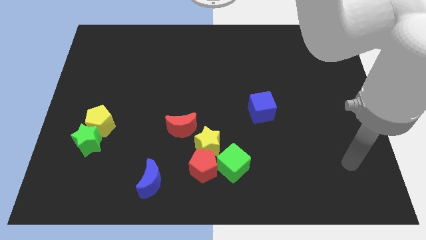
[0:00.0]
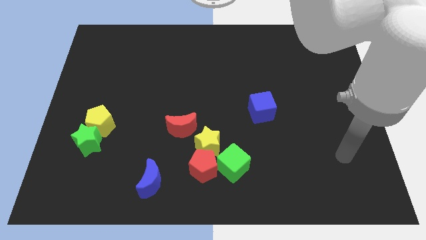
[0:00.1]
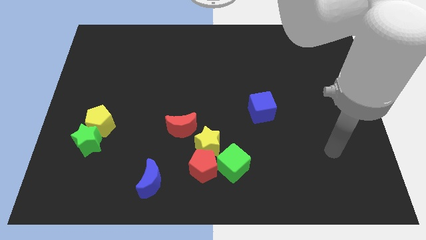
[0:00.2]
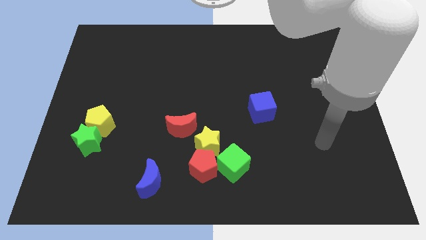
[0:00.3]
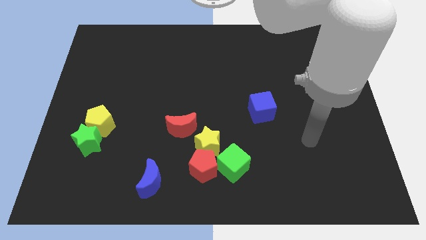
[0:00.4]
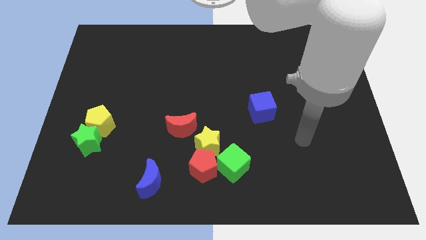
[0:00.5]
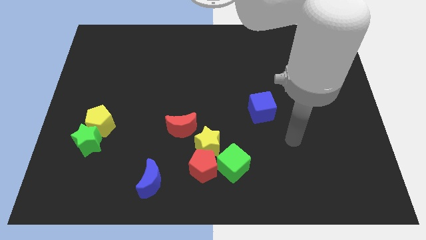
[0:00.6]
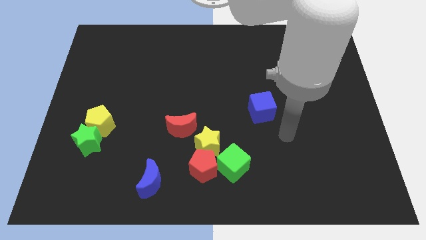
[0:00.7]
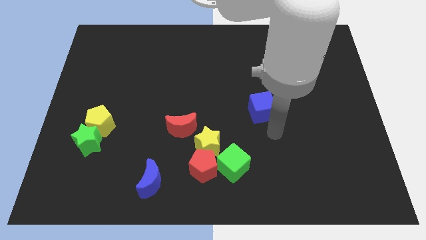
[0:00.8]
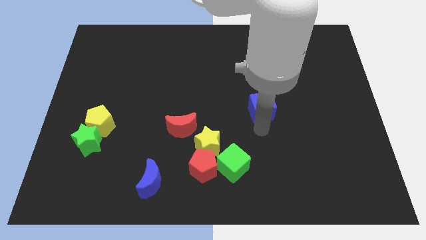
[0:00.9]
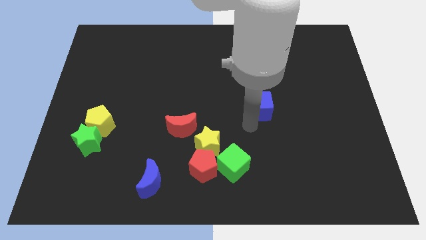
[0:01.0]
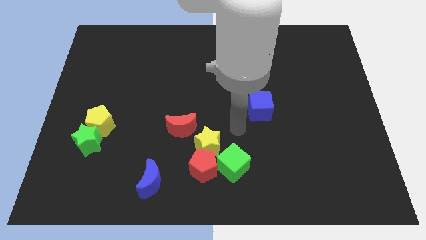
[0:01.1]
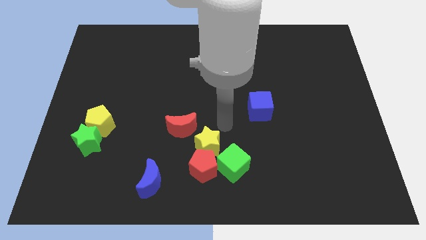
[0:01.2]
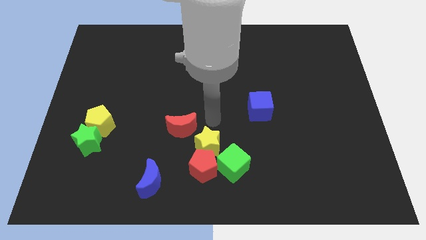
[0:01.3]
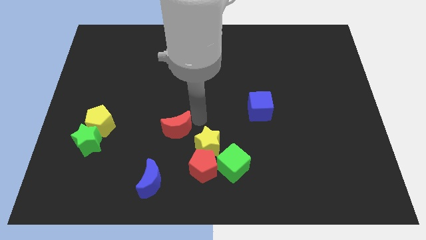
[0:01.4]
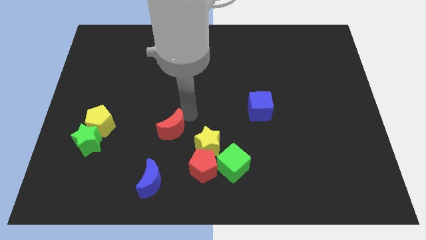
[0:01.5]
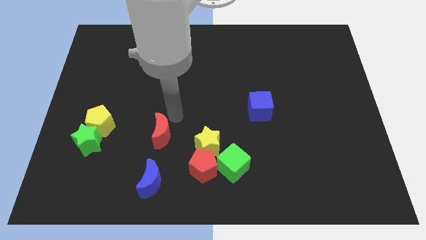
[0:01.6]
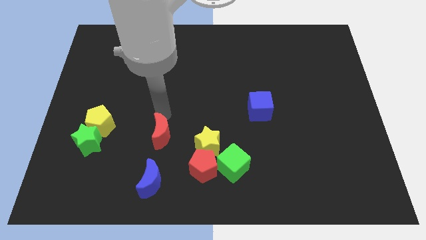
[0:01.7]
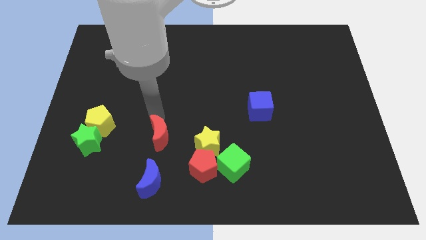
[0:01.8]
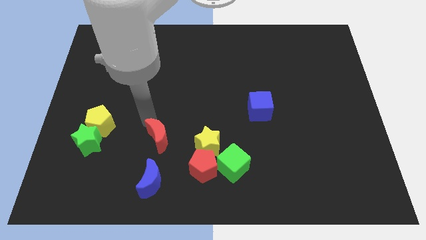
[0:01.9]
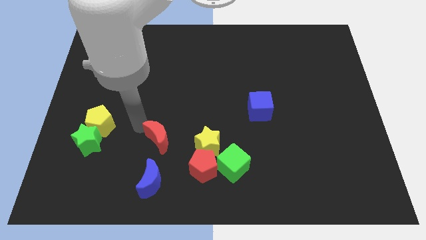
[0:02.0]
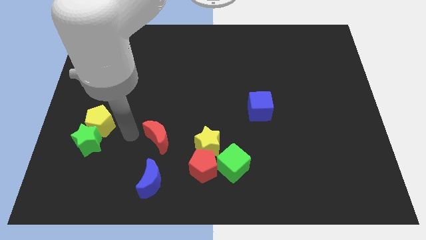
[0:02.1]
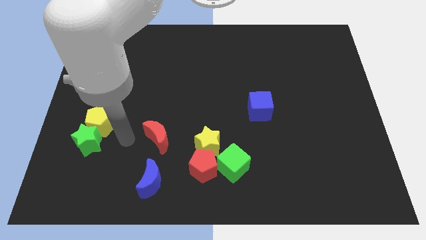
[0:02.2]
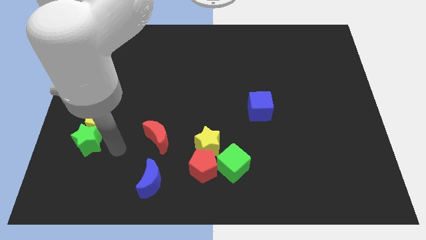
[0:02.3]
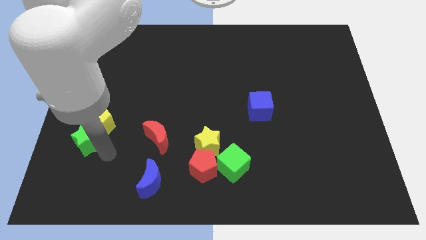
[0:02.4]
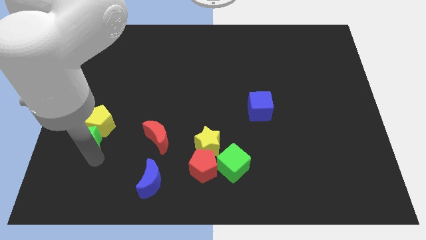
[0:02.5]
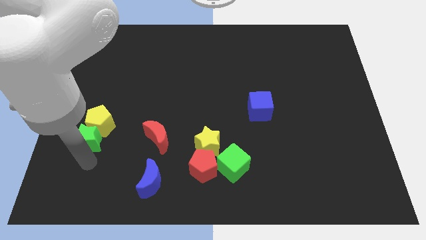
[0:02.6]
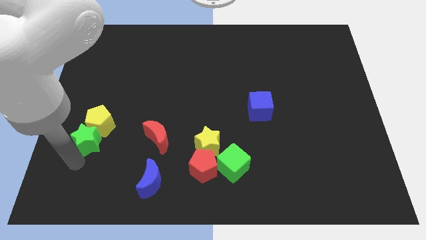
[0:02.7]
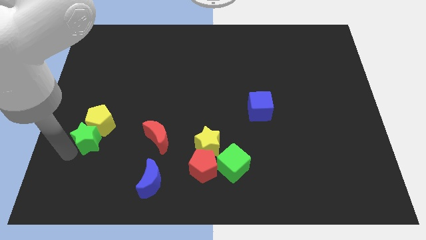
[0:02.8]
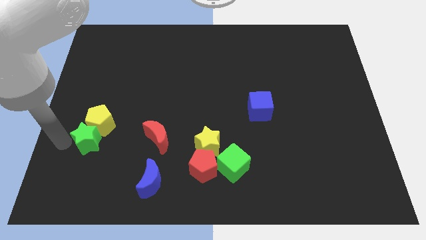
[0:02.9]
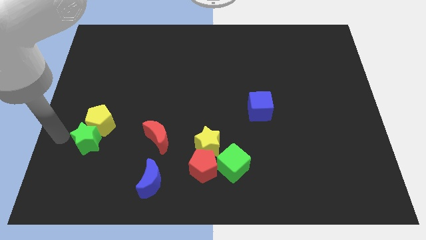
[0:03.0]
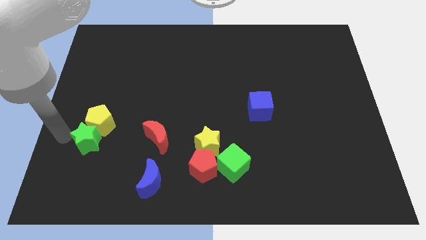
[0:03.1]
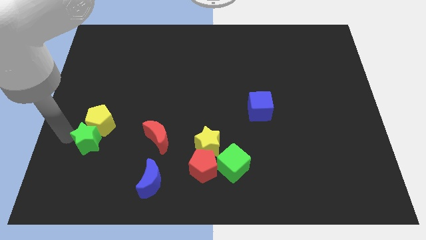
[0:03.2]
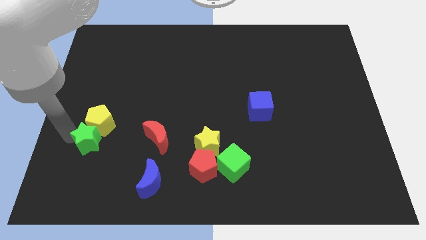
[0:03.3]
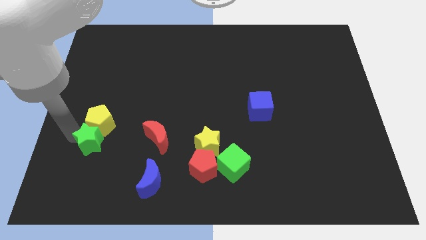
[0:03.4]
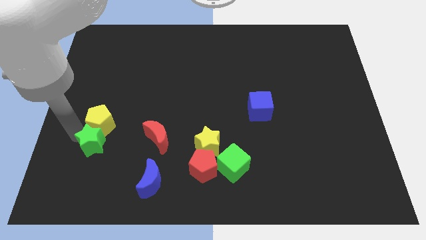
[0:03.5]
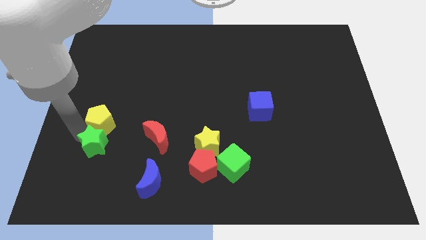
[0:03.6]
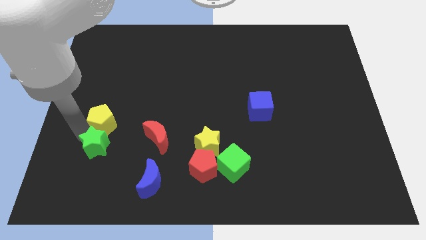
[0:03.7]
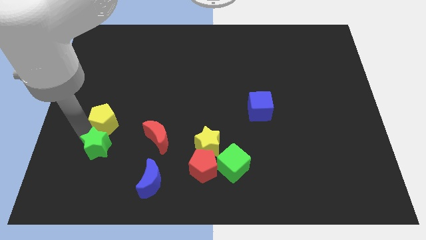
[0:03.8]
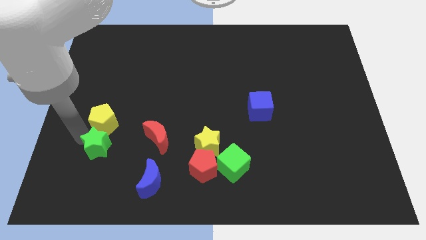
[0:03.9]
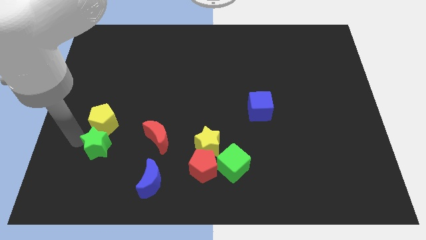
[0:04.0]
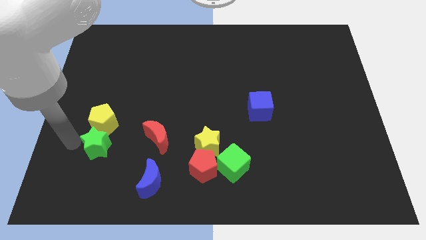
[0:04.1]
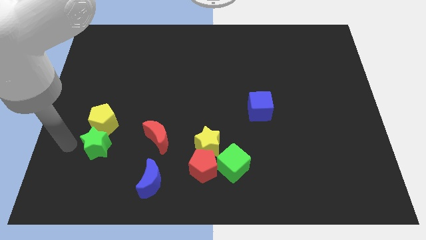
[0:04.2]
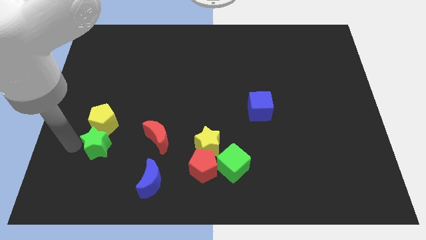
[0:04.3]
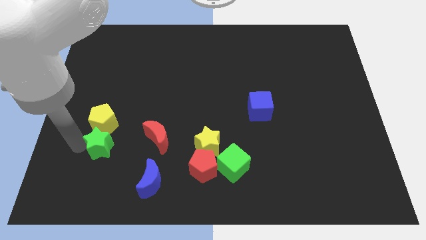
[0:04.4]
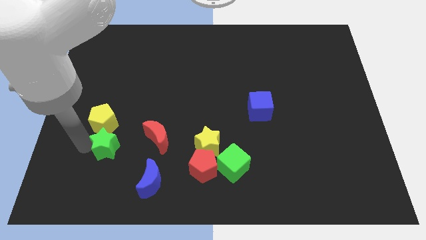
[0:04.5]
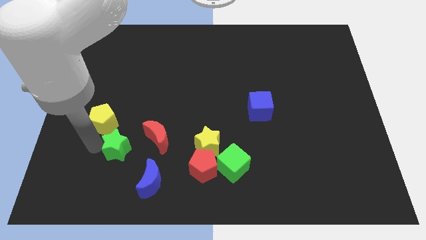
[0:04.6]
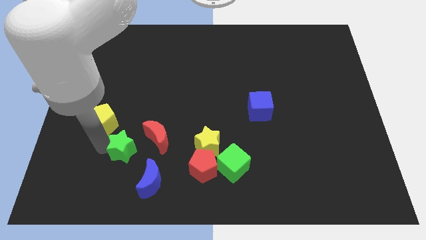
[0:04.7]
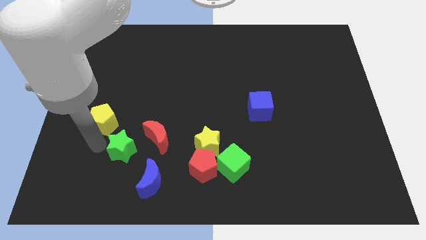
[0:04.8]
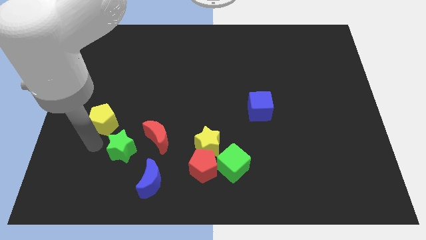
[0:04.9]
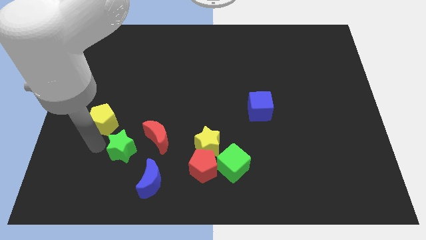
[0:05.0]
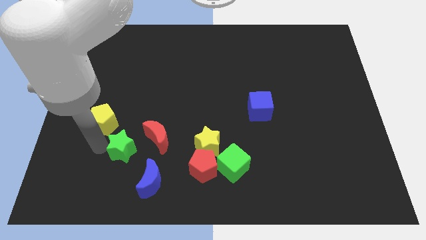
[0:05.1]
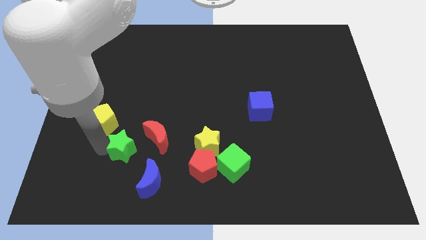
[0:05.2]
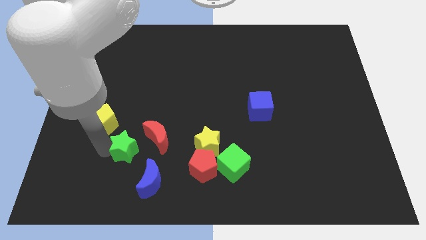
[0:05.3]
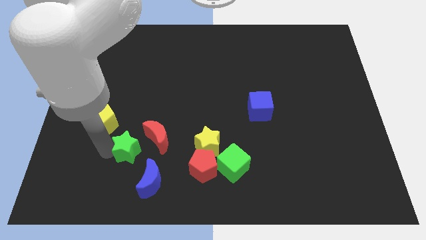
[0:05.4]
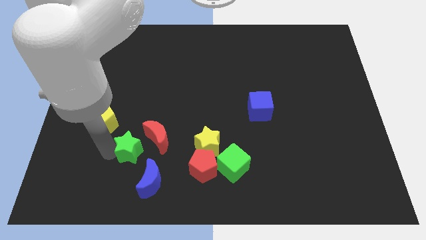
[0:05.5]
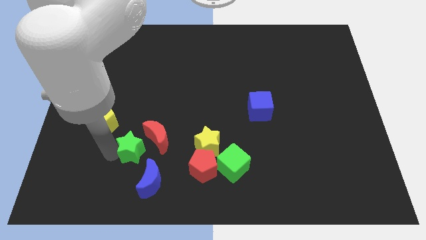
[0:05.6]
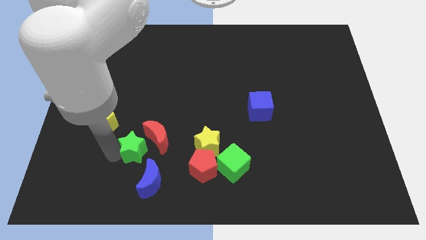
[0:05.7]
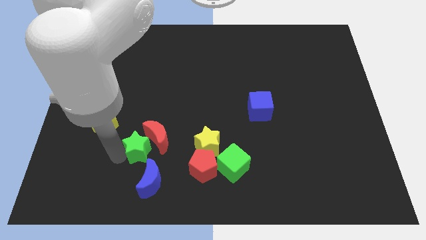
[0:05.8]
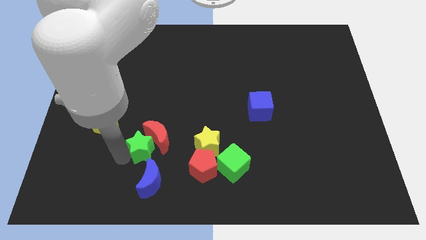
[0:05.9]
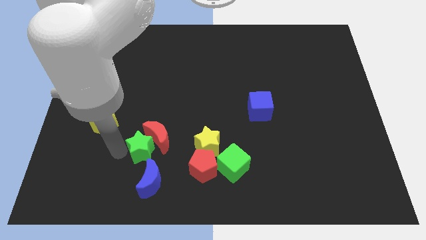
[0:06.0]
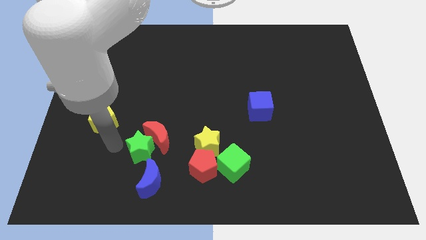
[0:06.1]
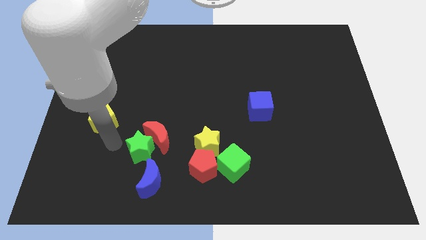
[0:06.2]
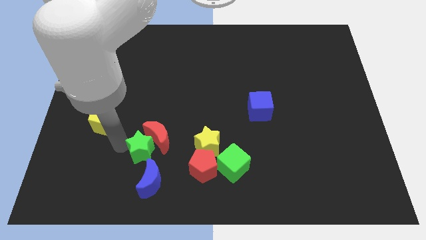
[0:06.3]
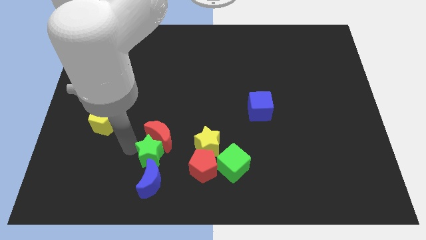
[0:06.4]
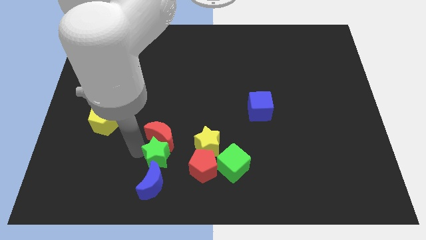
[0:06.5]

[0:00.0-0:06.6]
push the green star to the top right side of the blue moon

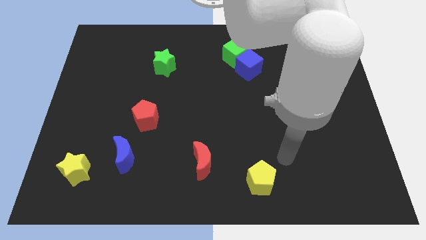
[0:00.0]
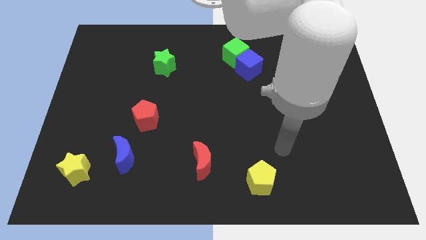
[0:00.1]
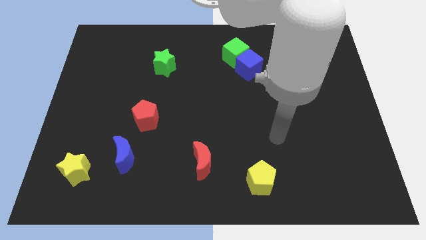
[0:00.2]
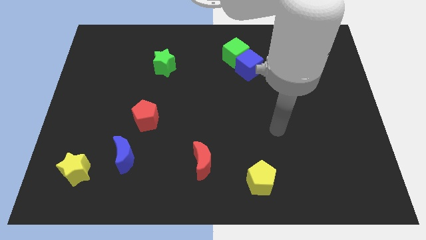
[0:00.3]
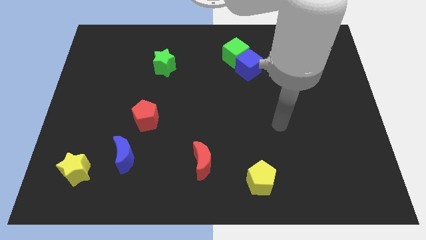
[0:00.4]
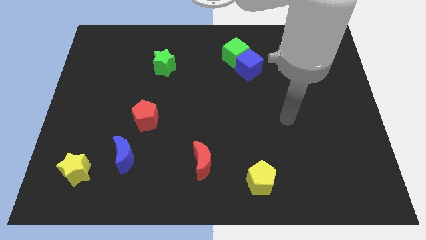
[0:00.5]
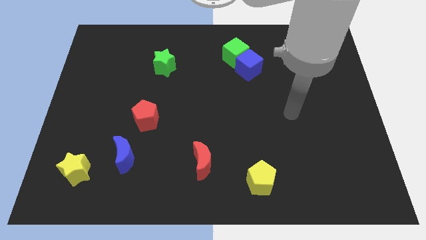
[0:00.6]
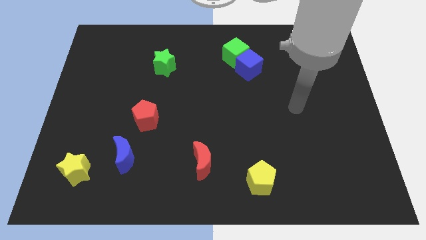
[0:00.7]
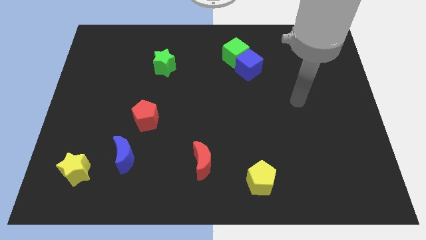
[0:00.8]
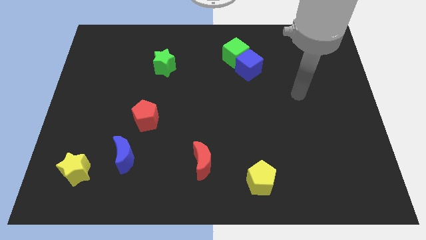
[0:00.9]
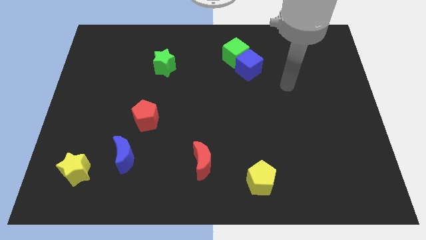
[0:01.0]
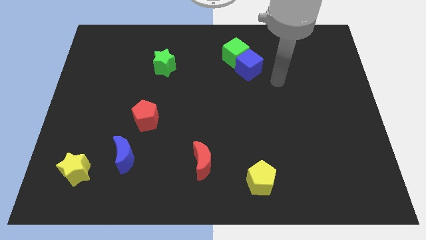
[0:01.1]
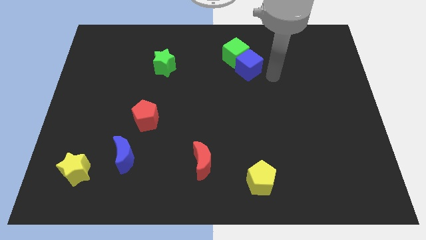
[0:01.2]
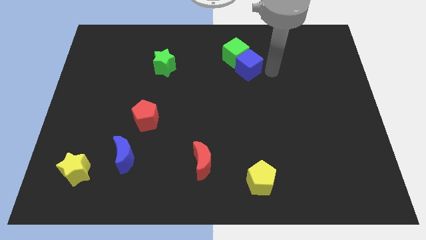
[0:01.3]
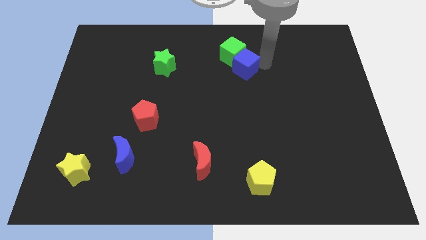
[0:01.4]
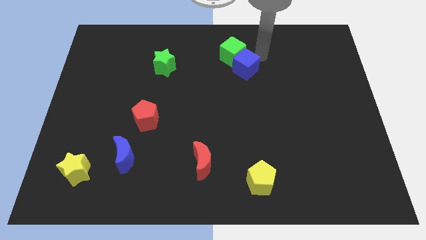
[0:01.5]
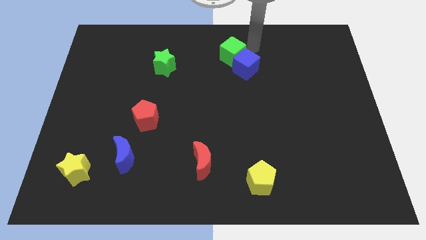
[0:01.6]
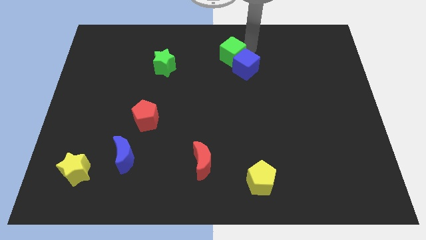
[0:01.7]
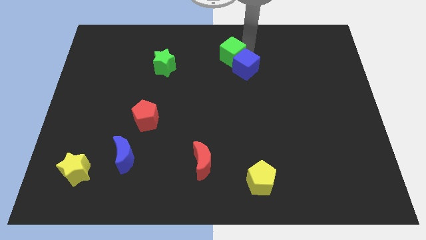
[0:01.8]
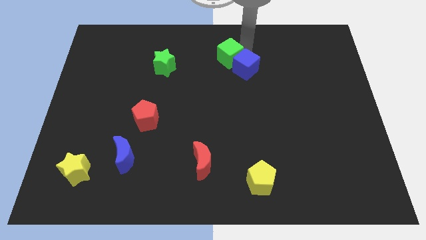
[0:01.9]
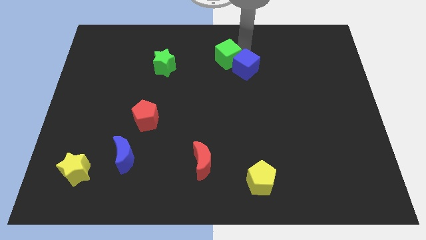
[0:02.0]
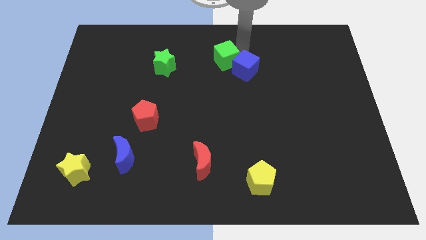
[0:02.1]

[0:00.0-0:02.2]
move the green cube just right of the green star
